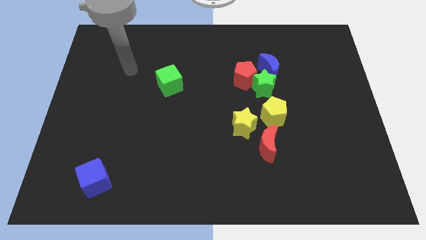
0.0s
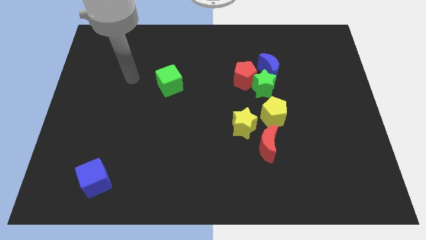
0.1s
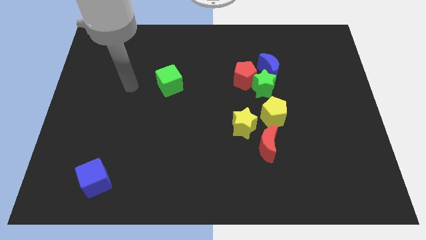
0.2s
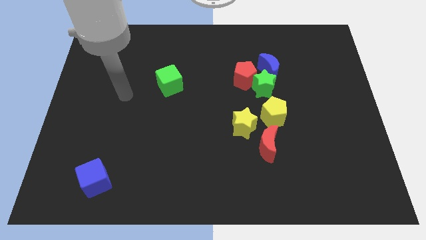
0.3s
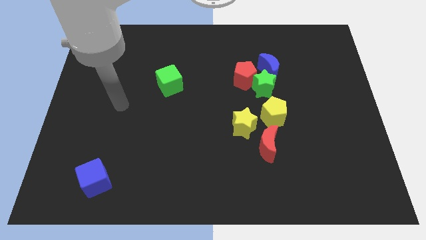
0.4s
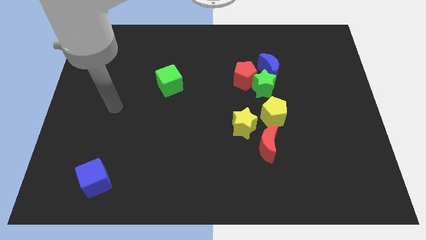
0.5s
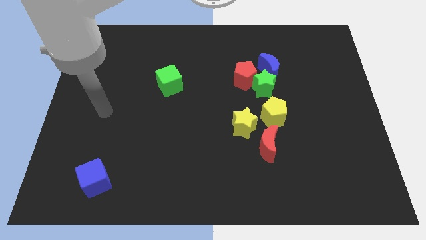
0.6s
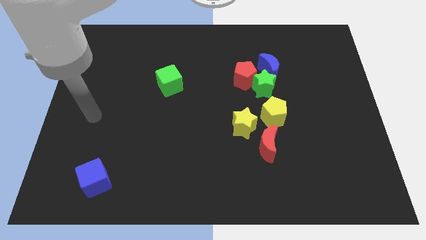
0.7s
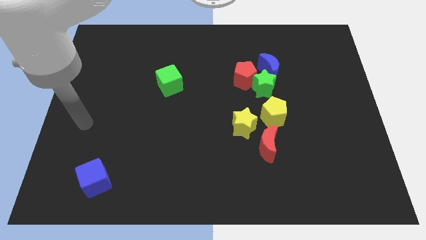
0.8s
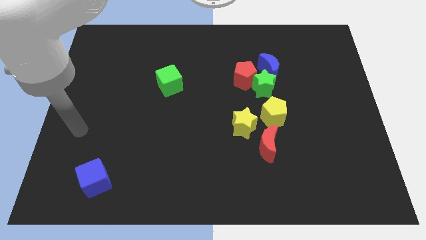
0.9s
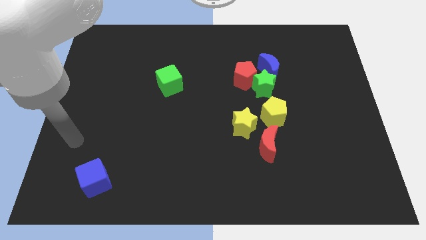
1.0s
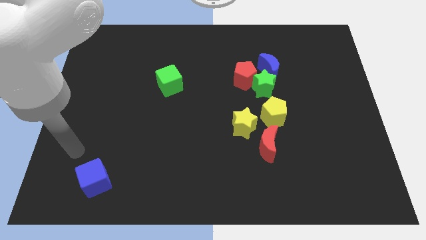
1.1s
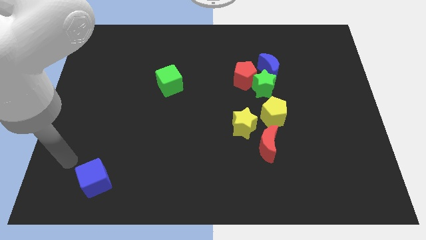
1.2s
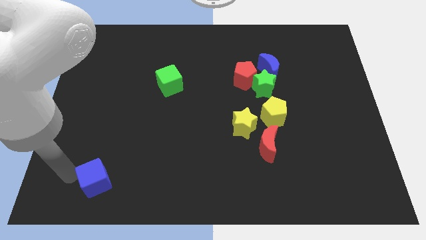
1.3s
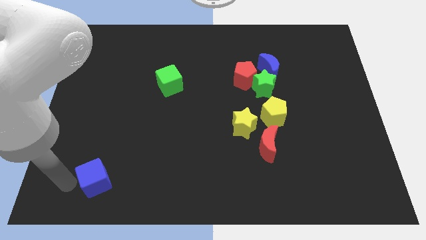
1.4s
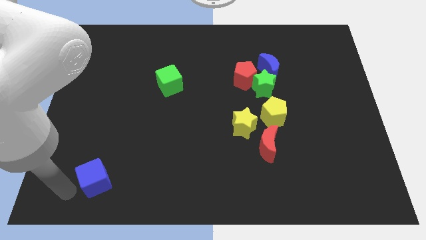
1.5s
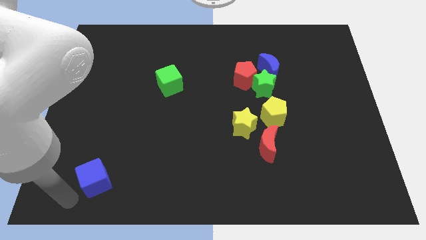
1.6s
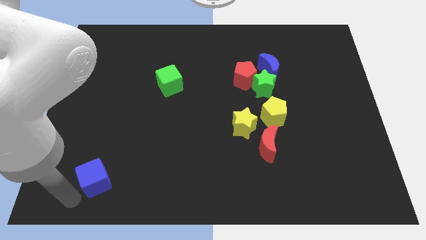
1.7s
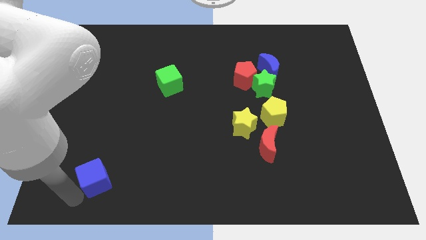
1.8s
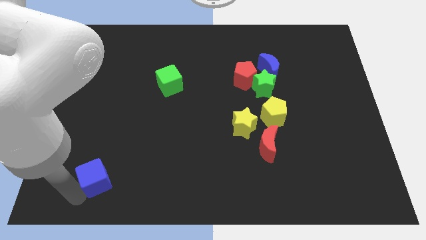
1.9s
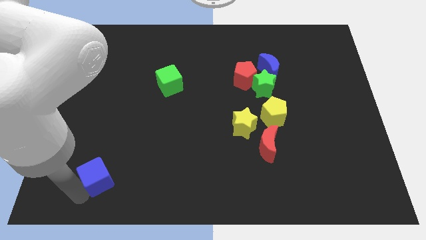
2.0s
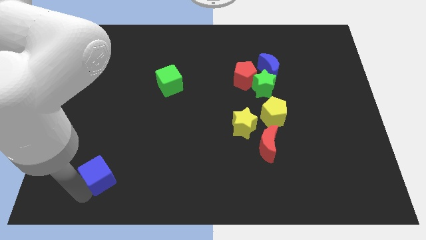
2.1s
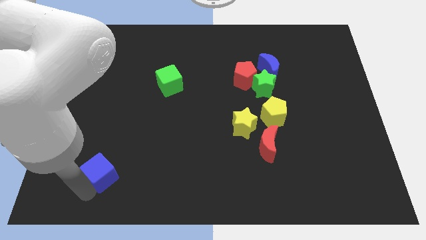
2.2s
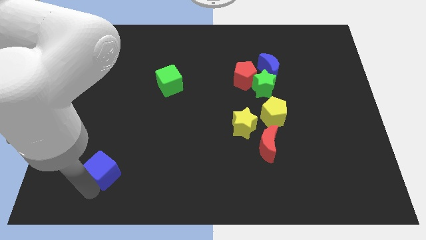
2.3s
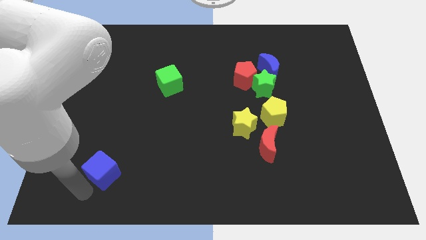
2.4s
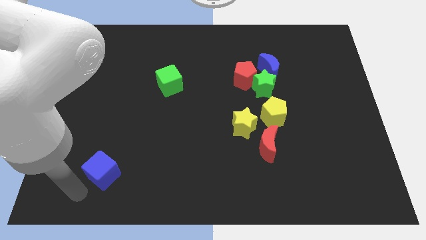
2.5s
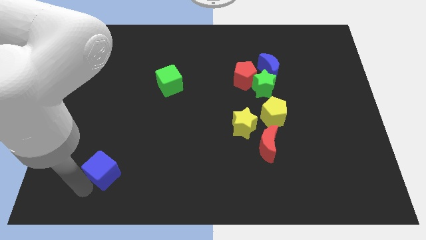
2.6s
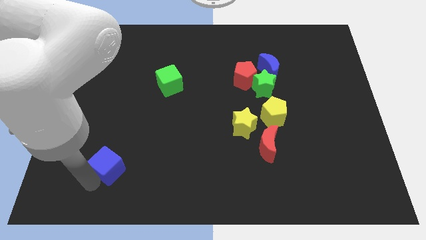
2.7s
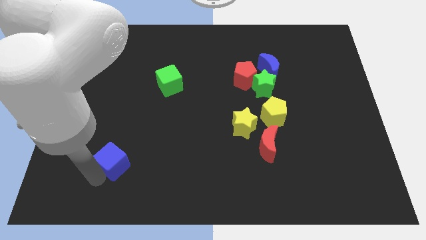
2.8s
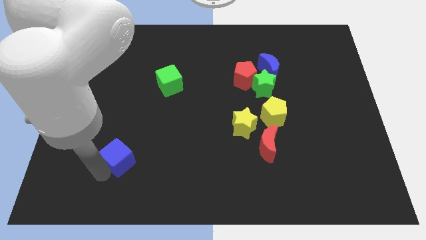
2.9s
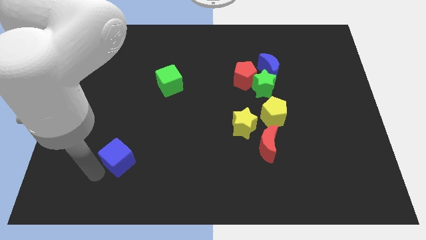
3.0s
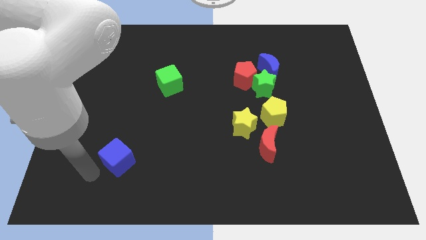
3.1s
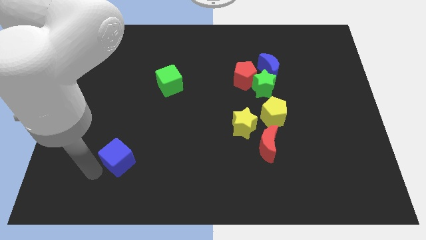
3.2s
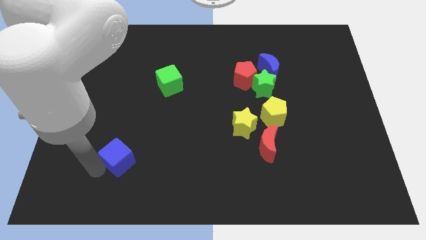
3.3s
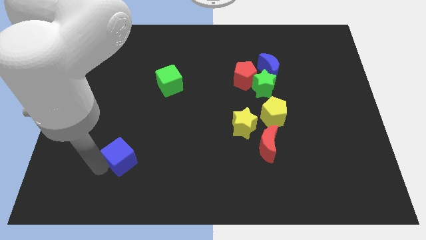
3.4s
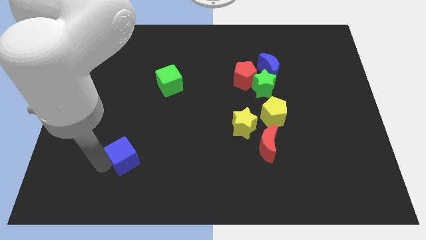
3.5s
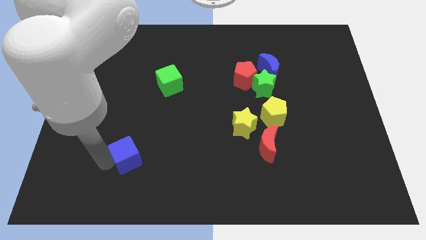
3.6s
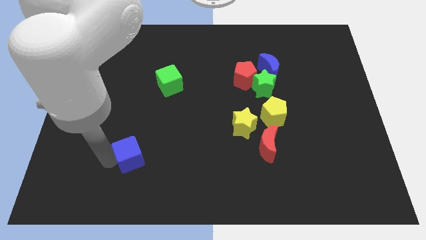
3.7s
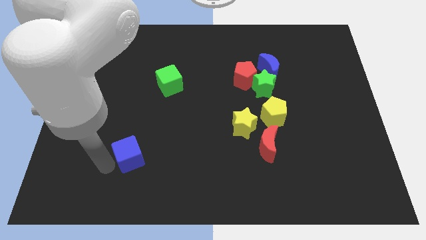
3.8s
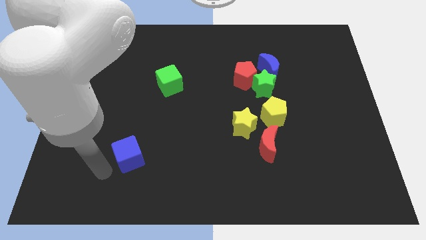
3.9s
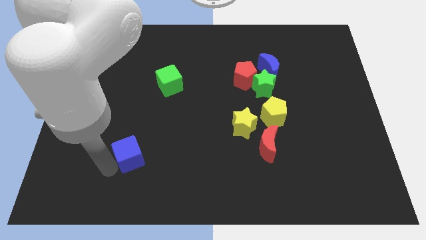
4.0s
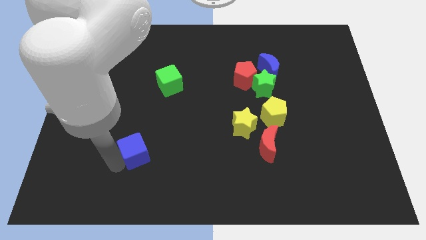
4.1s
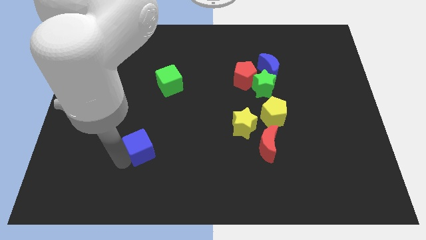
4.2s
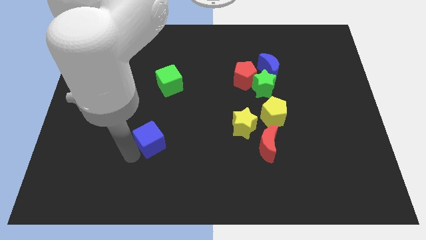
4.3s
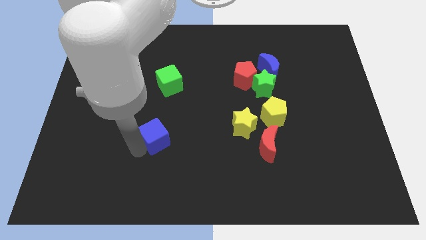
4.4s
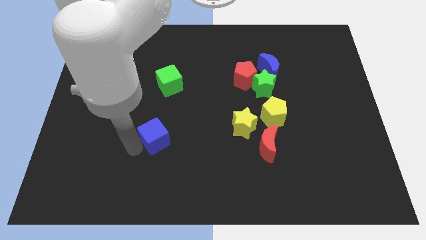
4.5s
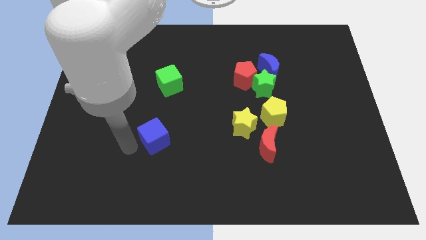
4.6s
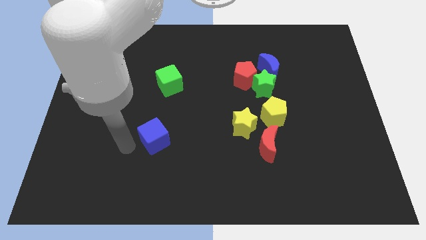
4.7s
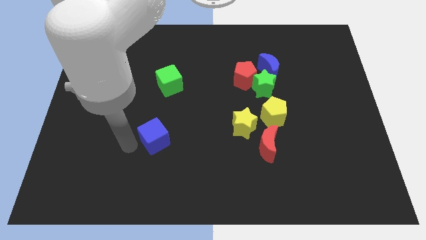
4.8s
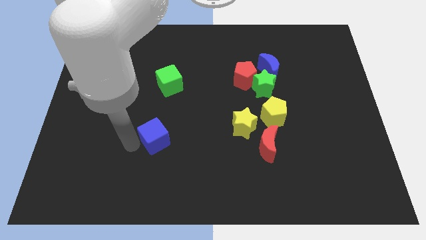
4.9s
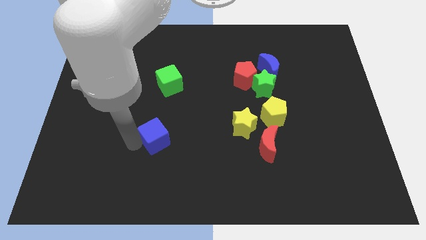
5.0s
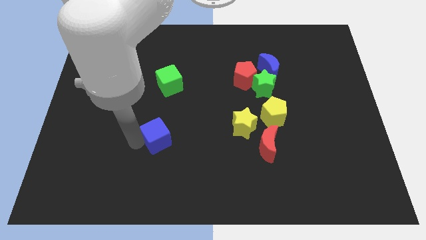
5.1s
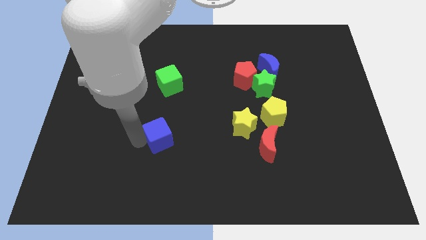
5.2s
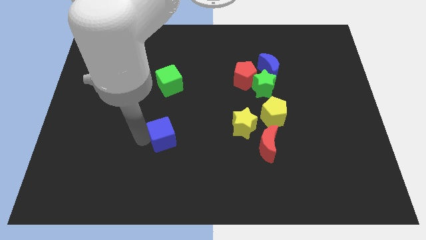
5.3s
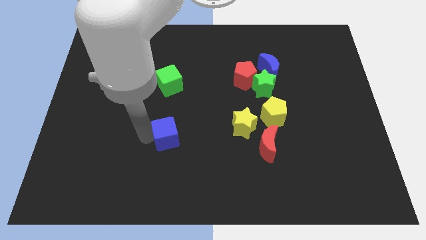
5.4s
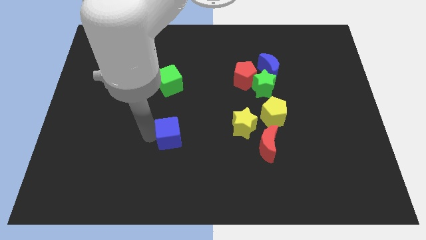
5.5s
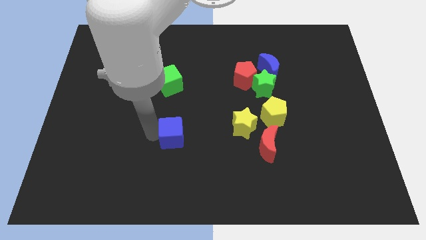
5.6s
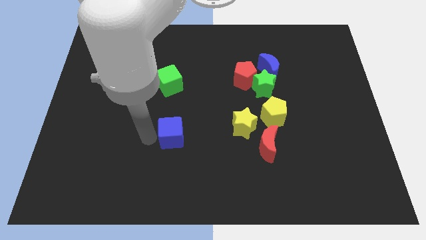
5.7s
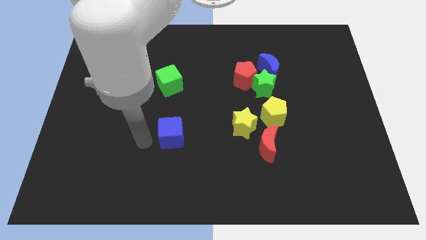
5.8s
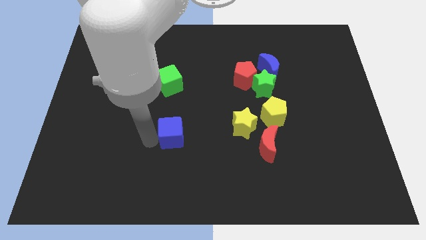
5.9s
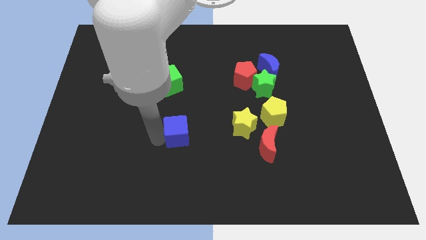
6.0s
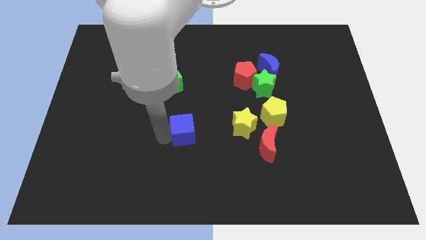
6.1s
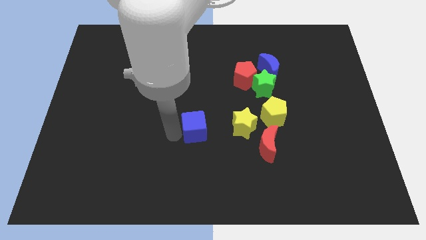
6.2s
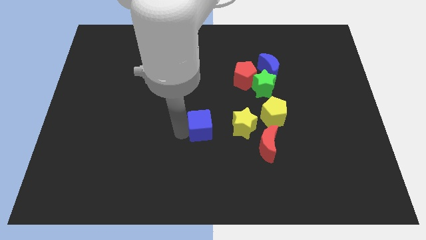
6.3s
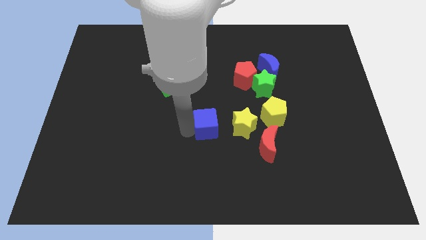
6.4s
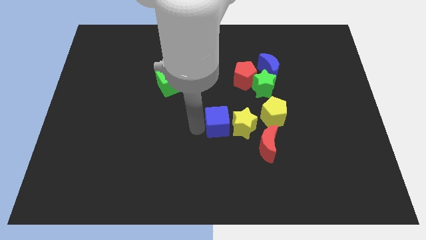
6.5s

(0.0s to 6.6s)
push the blue cube to the yellow star

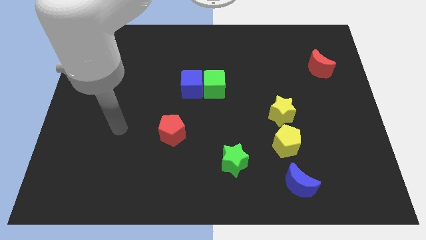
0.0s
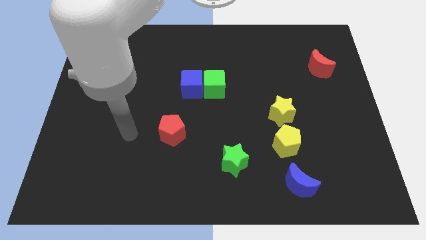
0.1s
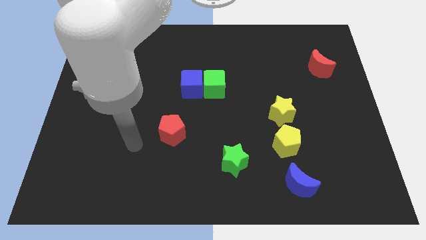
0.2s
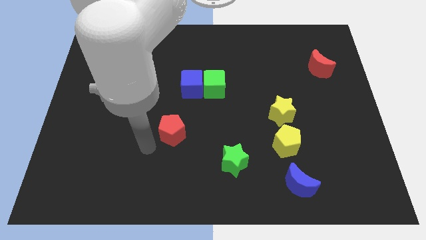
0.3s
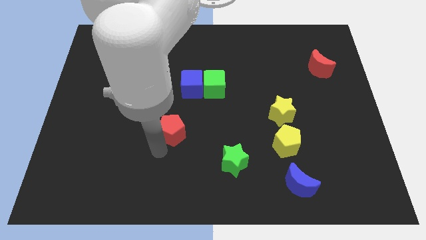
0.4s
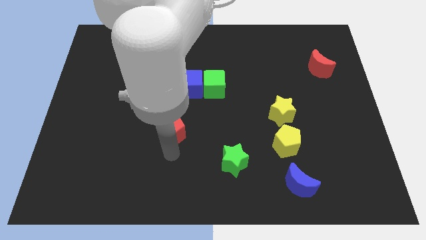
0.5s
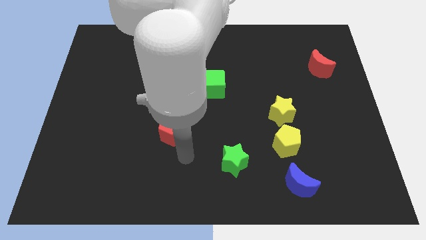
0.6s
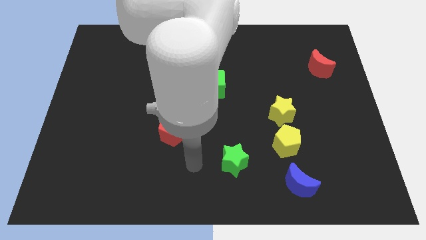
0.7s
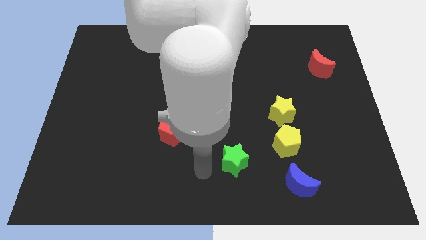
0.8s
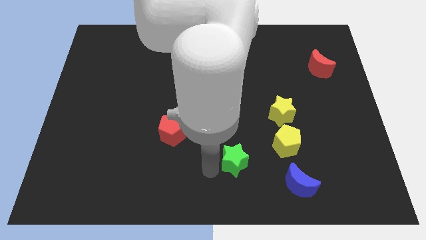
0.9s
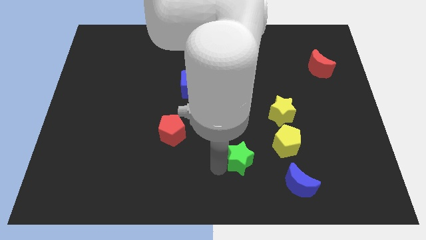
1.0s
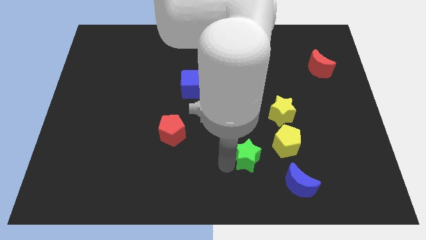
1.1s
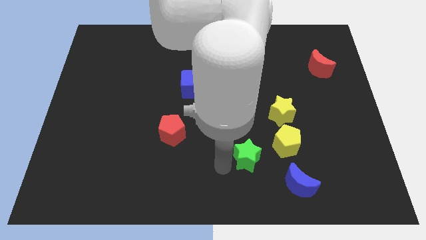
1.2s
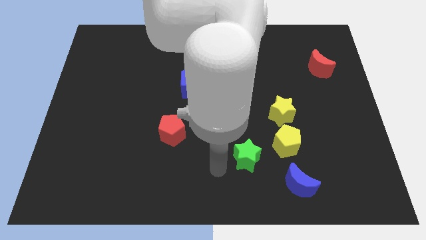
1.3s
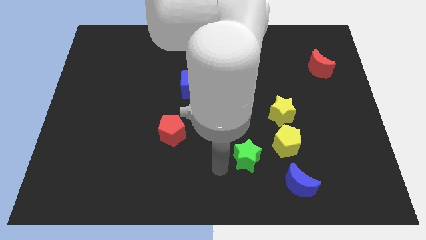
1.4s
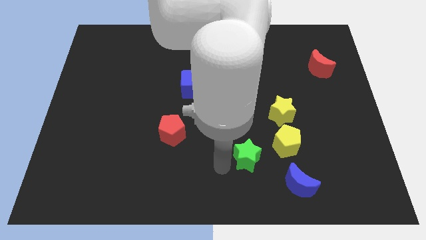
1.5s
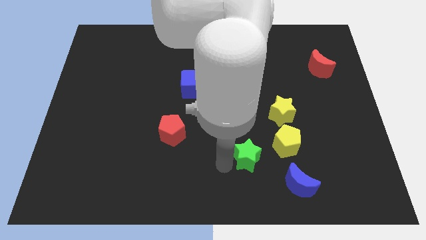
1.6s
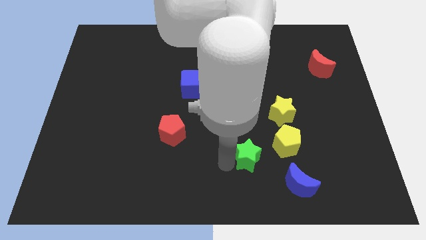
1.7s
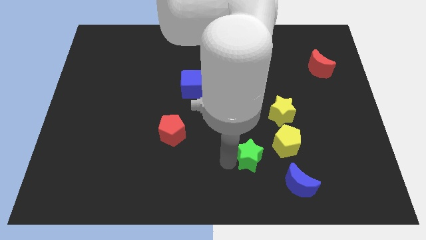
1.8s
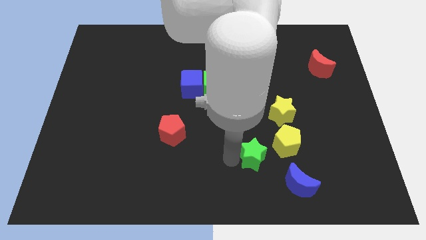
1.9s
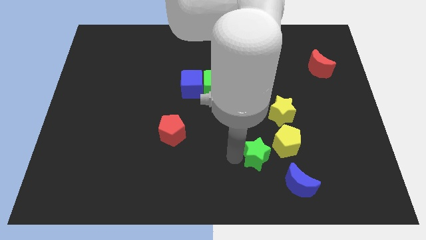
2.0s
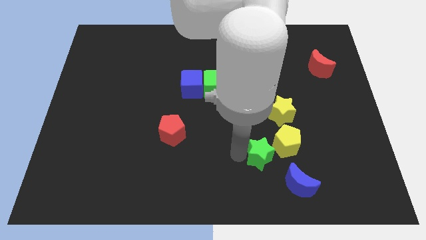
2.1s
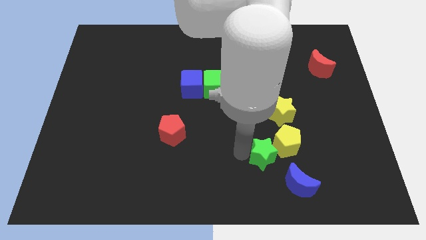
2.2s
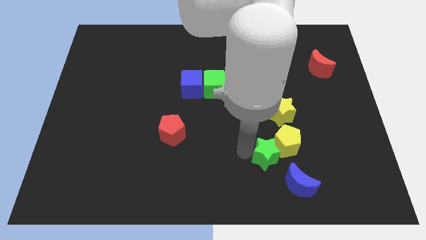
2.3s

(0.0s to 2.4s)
slide the green star towards the yellow pentagon
